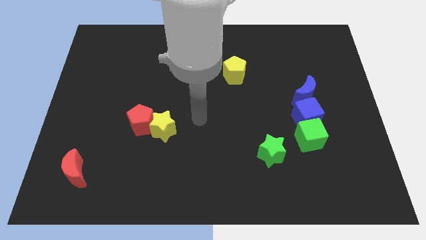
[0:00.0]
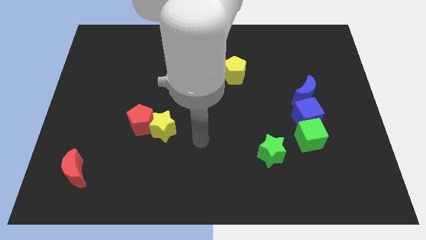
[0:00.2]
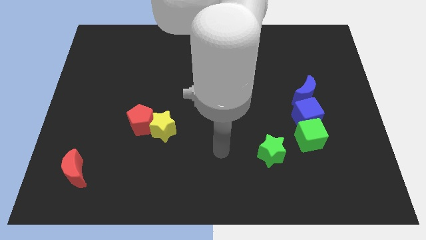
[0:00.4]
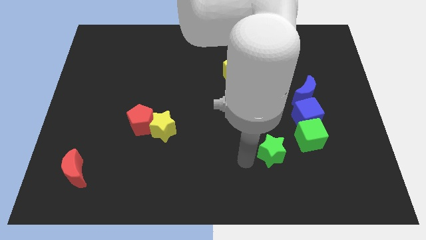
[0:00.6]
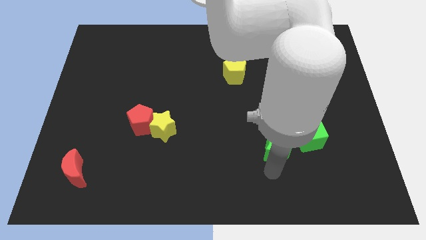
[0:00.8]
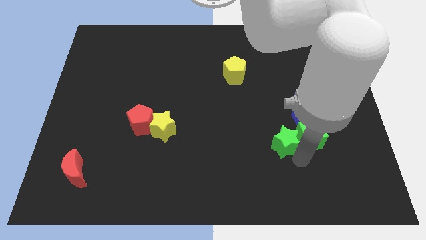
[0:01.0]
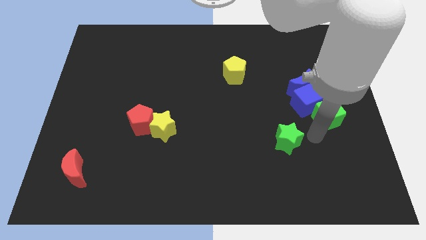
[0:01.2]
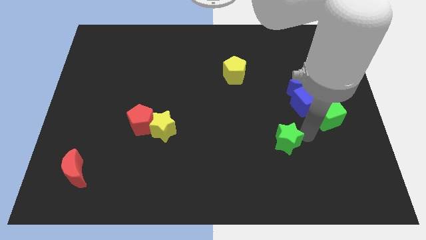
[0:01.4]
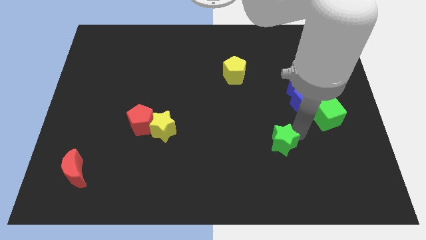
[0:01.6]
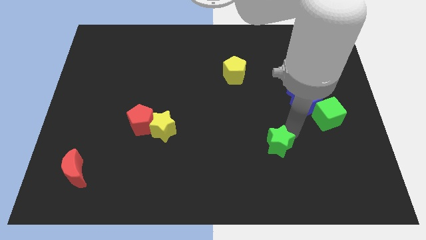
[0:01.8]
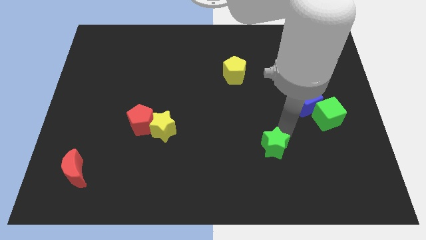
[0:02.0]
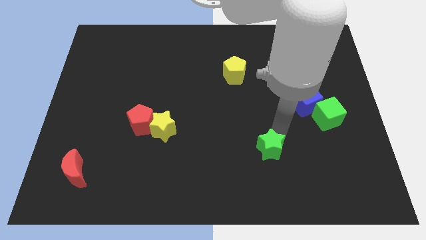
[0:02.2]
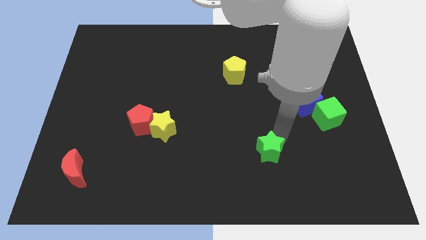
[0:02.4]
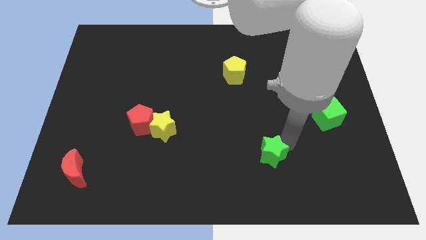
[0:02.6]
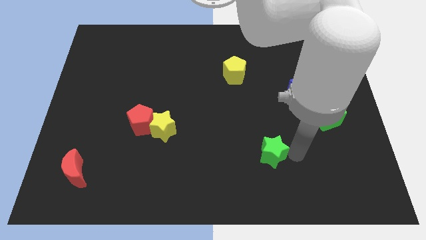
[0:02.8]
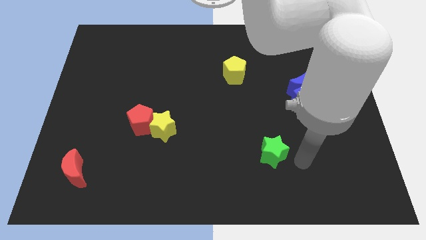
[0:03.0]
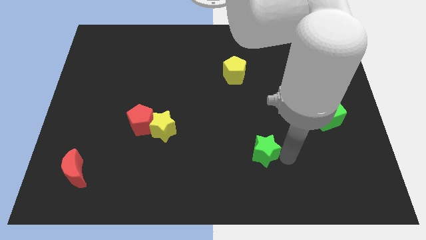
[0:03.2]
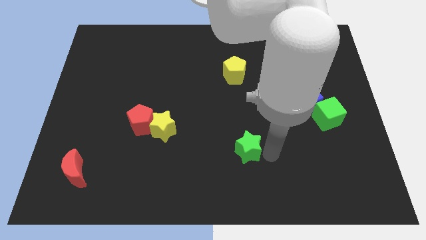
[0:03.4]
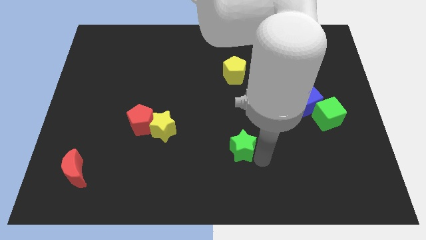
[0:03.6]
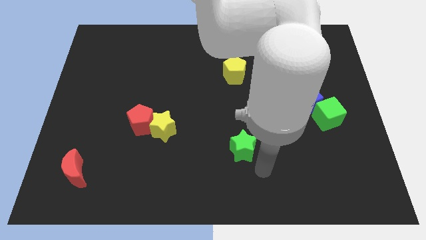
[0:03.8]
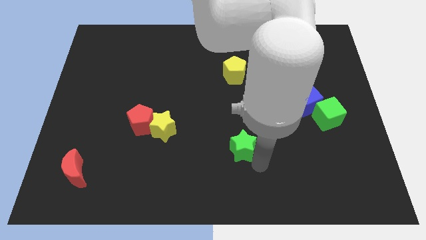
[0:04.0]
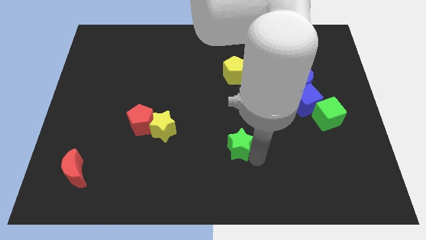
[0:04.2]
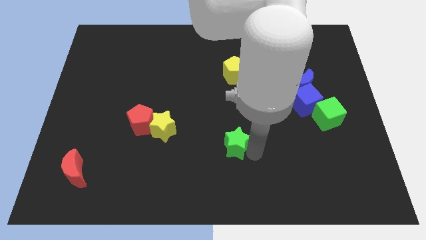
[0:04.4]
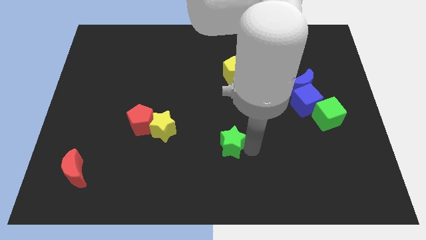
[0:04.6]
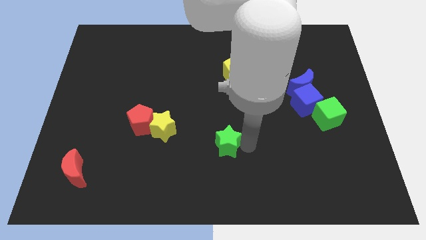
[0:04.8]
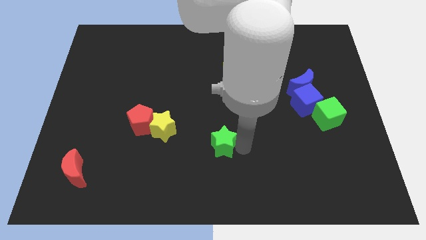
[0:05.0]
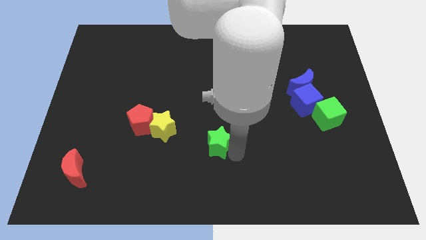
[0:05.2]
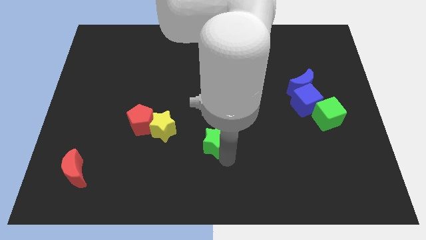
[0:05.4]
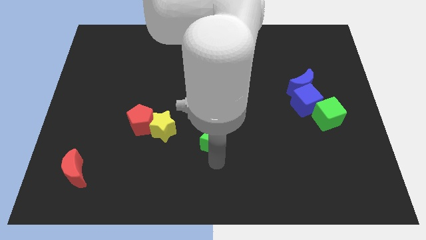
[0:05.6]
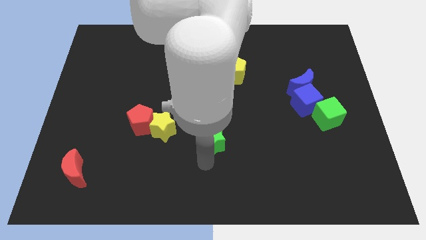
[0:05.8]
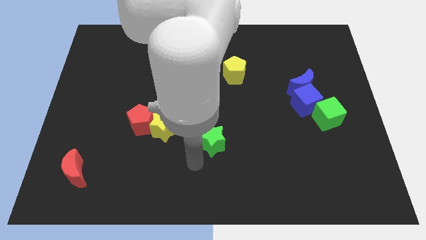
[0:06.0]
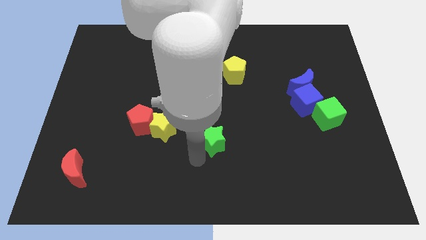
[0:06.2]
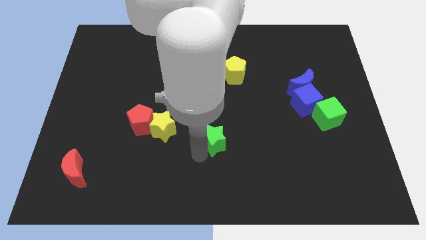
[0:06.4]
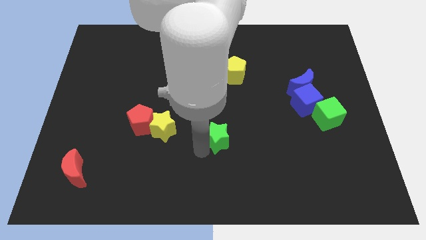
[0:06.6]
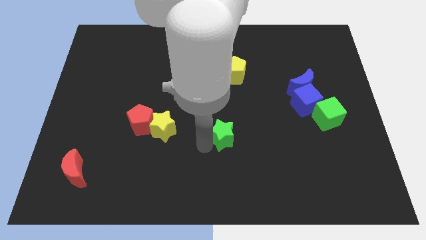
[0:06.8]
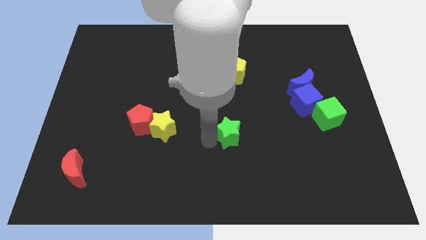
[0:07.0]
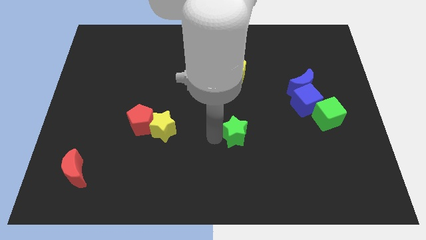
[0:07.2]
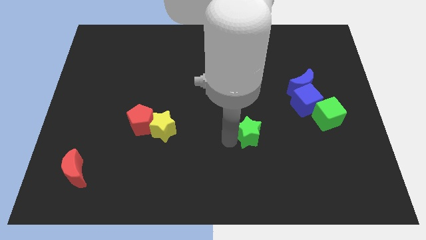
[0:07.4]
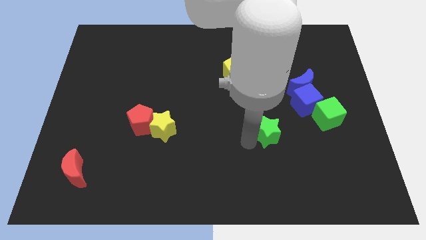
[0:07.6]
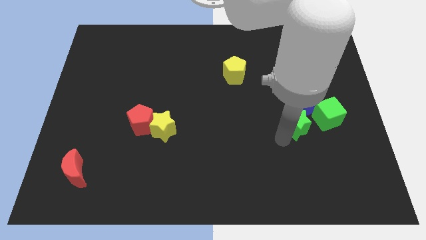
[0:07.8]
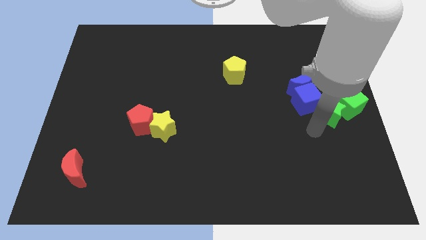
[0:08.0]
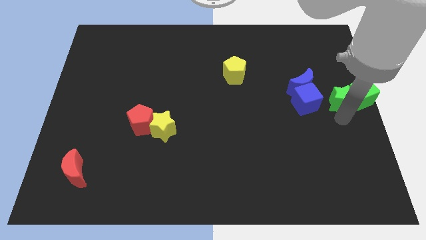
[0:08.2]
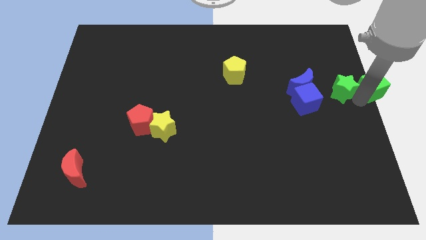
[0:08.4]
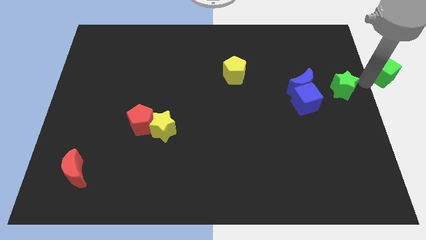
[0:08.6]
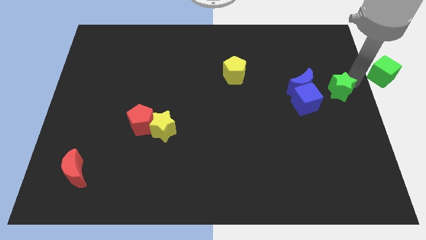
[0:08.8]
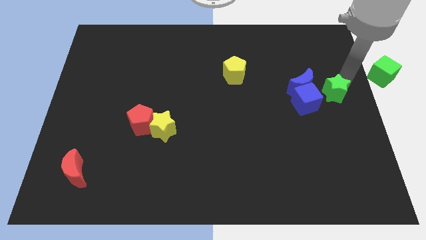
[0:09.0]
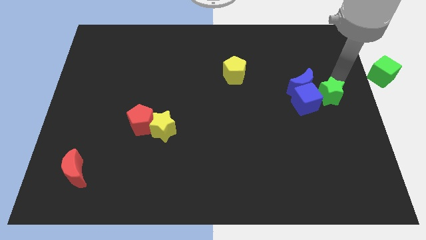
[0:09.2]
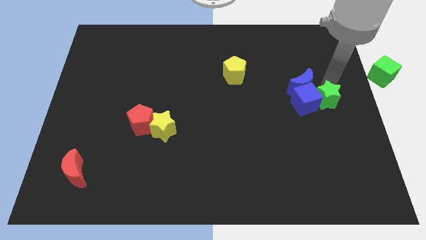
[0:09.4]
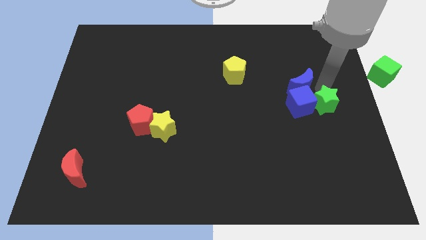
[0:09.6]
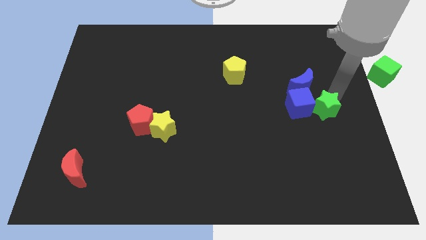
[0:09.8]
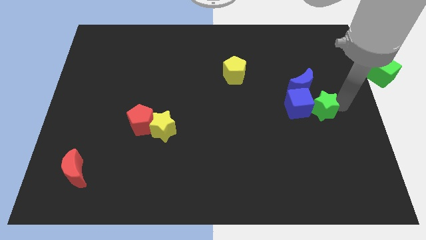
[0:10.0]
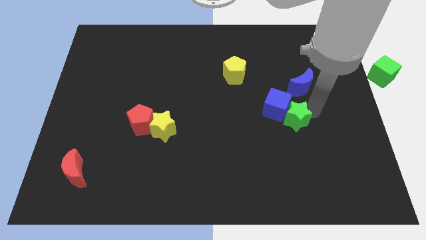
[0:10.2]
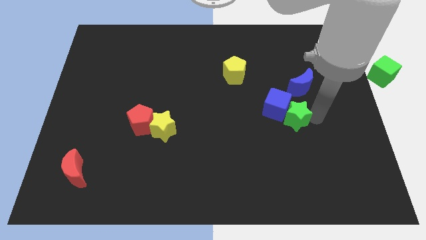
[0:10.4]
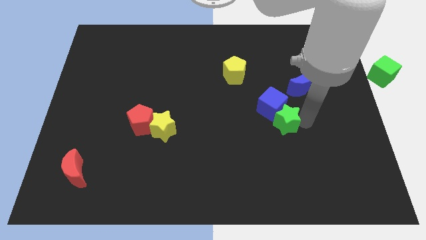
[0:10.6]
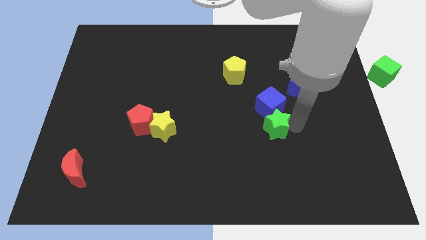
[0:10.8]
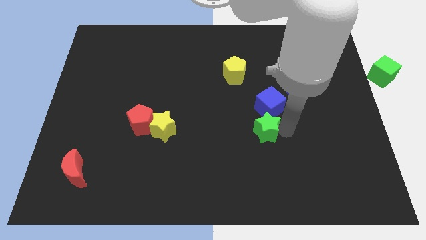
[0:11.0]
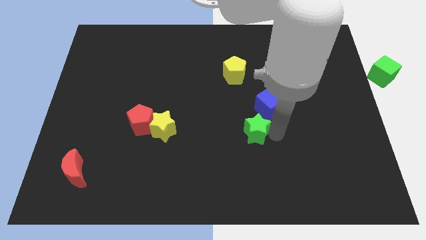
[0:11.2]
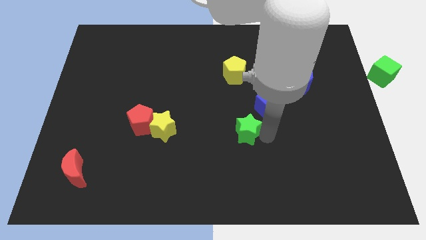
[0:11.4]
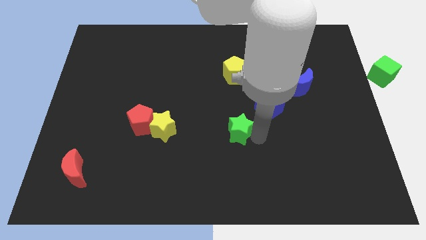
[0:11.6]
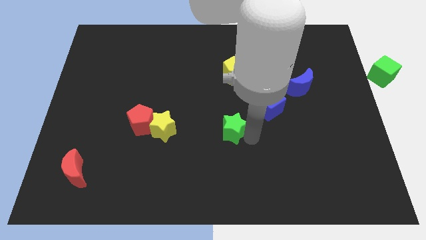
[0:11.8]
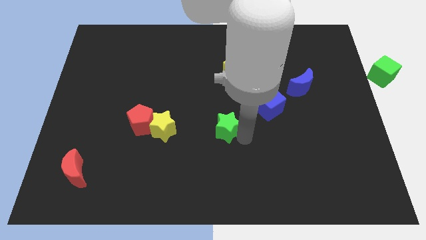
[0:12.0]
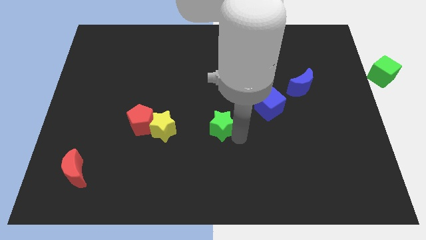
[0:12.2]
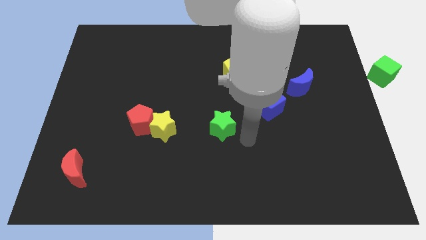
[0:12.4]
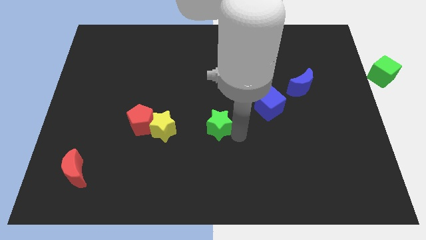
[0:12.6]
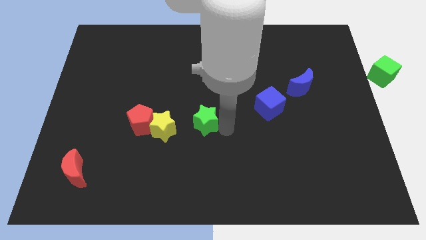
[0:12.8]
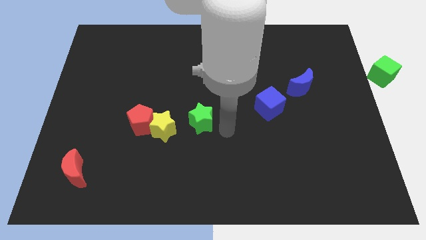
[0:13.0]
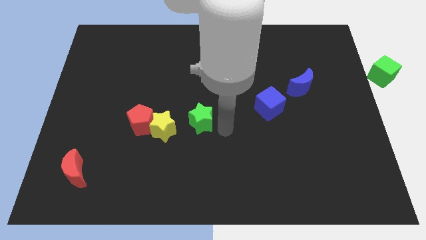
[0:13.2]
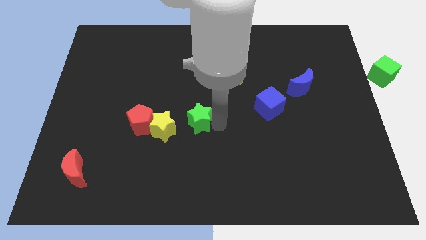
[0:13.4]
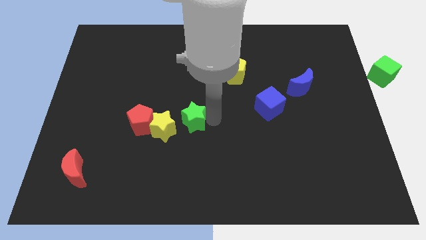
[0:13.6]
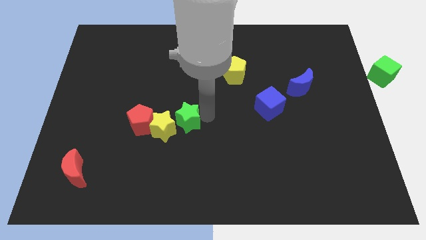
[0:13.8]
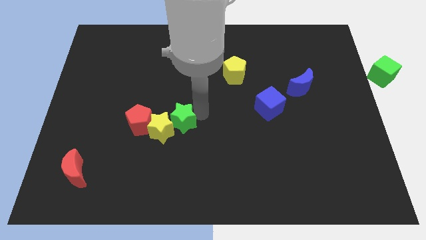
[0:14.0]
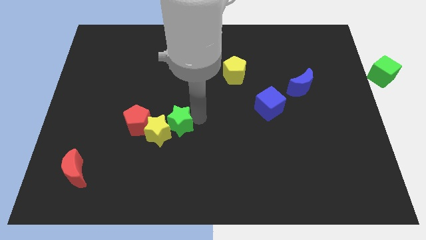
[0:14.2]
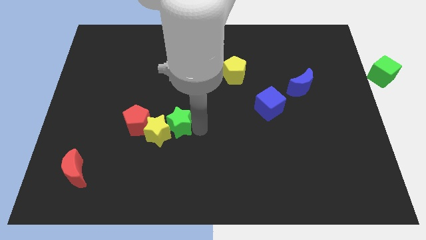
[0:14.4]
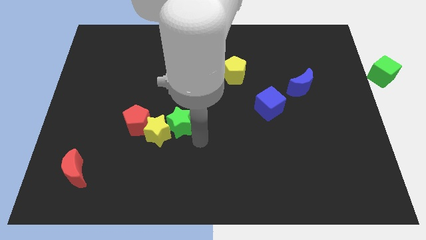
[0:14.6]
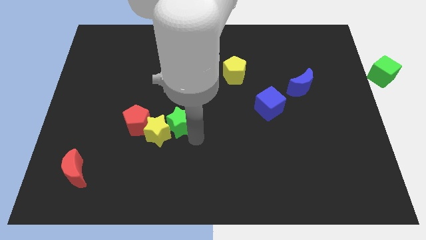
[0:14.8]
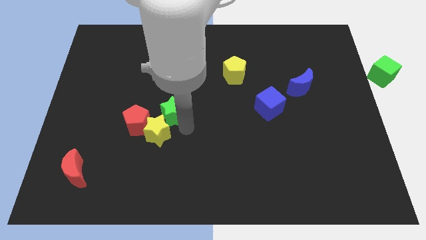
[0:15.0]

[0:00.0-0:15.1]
push the green star to the top right of the red pentagon
